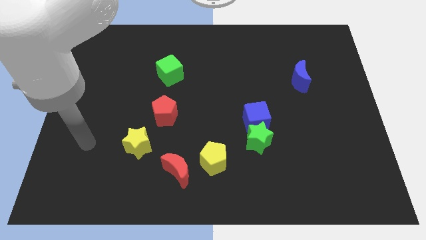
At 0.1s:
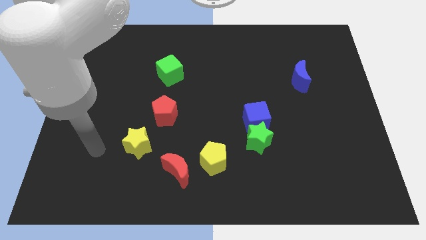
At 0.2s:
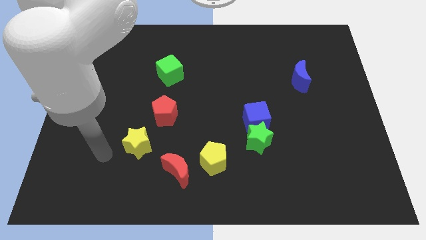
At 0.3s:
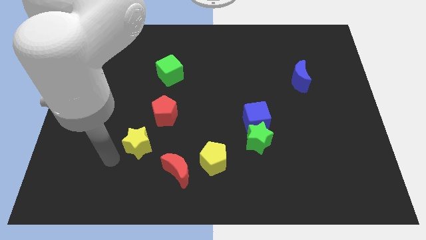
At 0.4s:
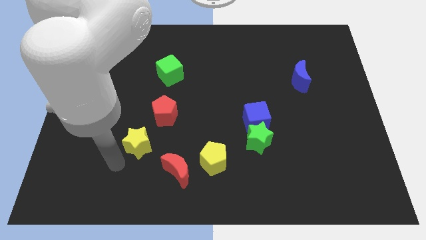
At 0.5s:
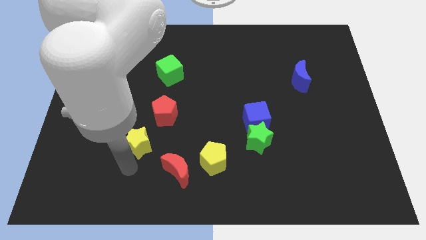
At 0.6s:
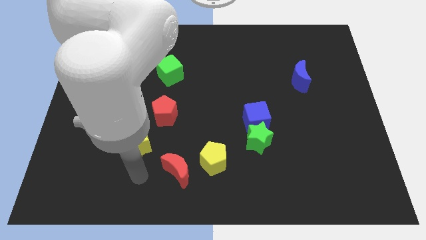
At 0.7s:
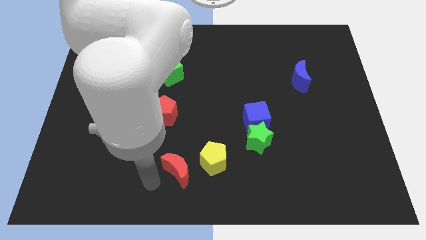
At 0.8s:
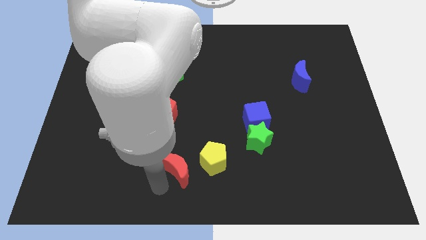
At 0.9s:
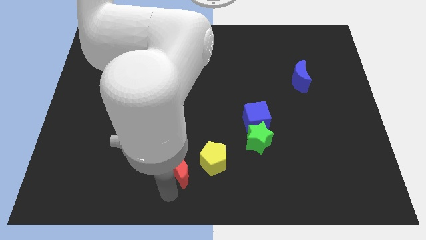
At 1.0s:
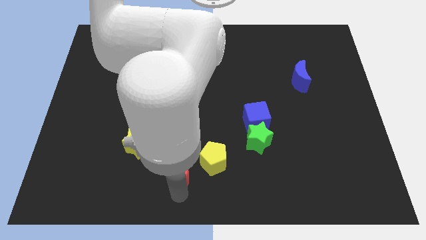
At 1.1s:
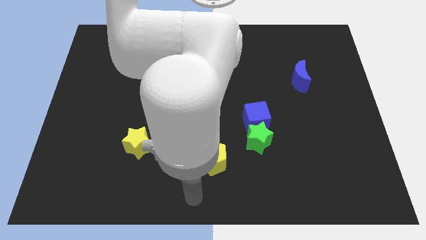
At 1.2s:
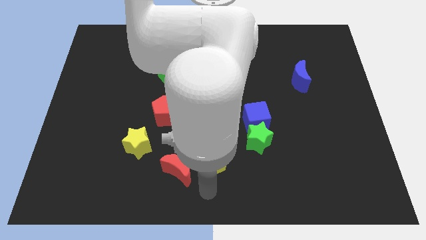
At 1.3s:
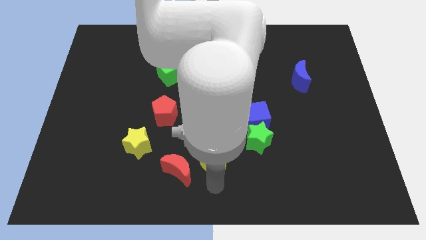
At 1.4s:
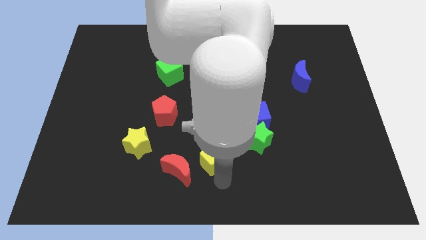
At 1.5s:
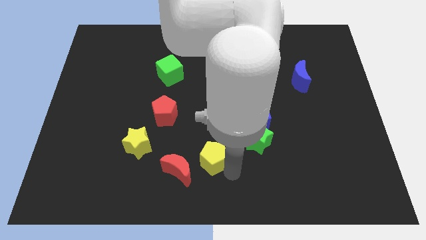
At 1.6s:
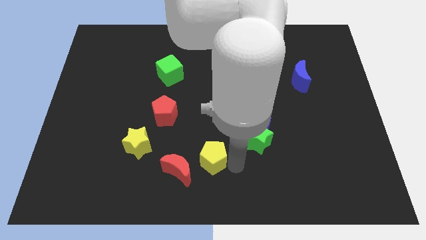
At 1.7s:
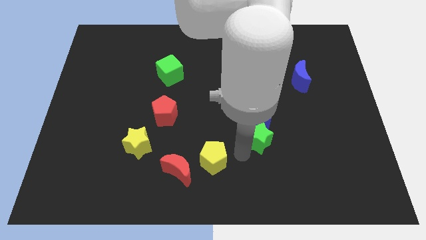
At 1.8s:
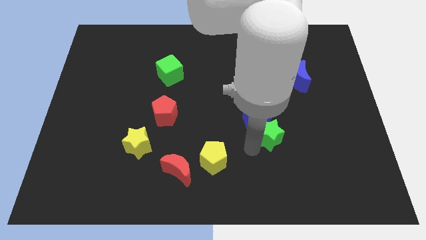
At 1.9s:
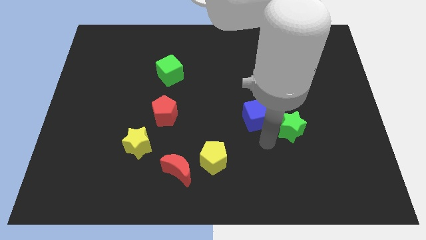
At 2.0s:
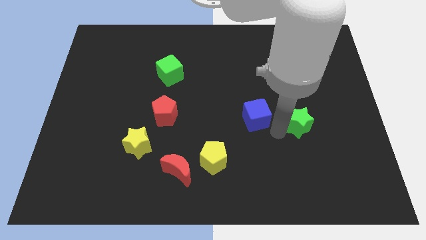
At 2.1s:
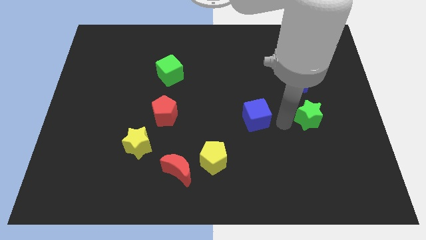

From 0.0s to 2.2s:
move the blue cube away from the green star

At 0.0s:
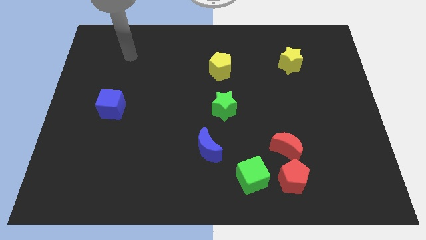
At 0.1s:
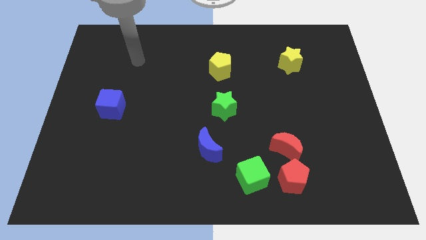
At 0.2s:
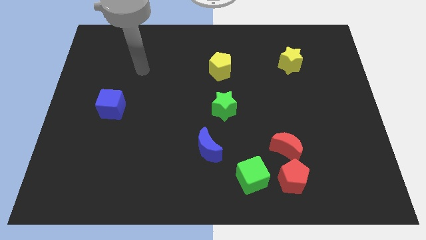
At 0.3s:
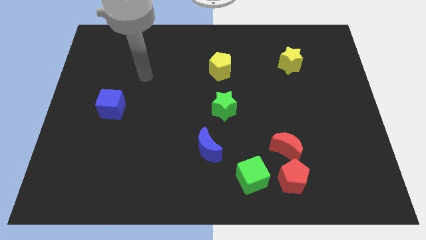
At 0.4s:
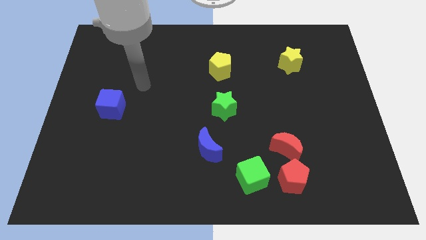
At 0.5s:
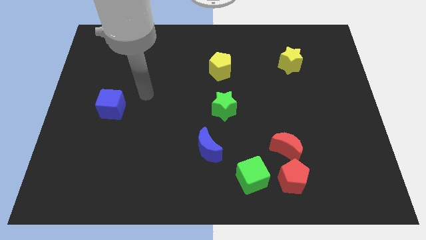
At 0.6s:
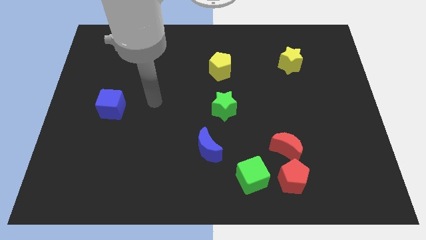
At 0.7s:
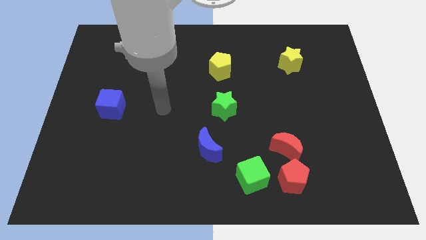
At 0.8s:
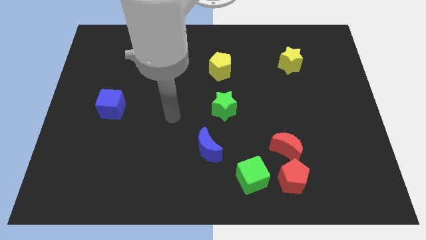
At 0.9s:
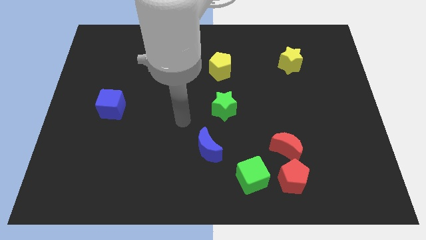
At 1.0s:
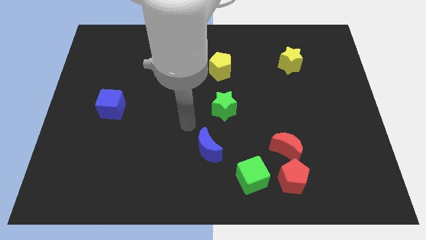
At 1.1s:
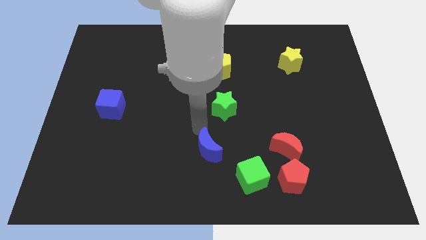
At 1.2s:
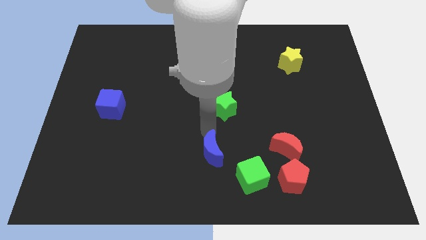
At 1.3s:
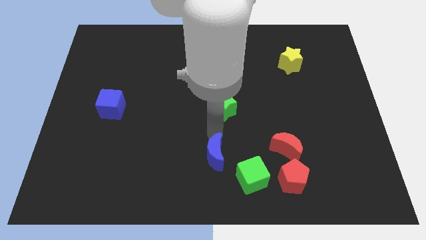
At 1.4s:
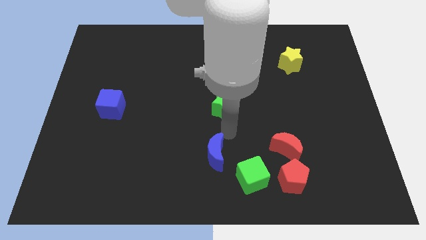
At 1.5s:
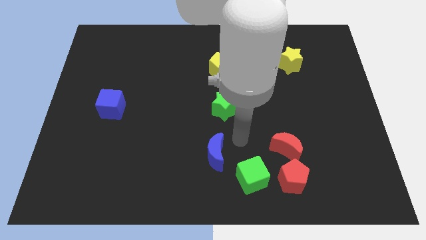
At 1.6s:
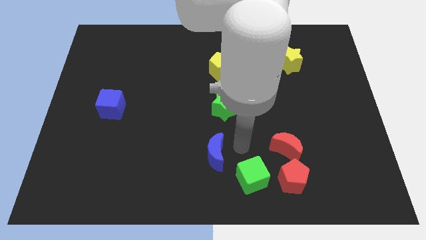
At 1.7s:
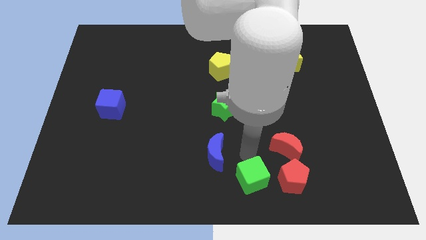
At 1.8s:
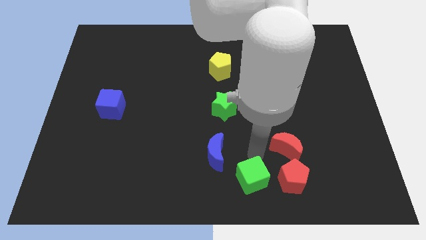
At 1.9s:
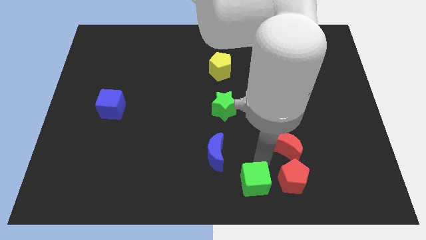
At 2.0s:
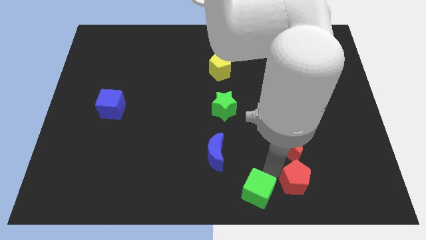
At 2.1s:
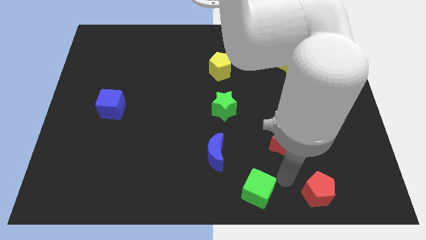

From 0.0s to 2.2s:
separate the red moon from the red pentagon

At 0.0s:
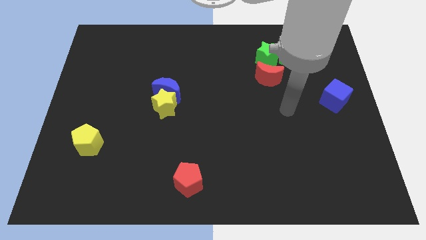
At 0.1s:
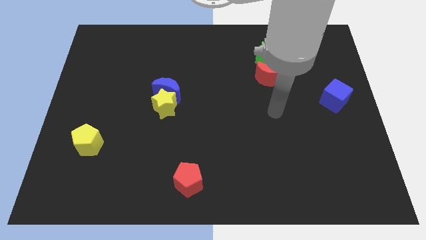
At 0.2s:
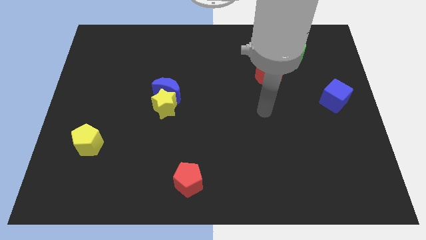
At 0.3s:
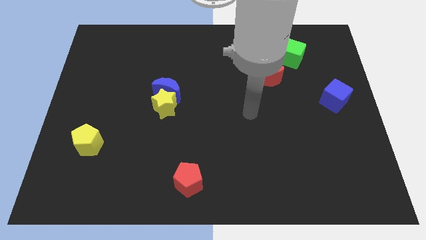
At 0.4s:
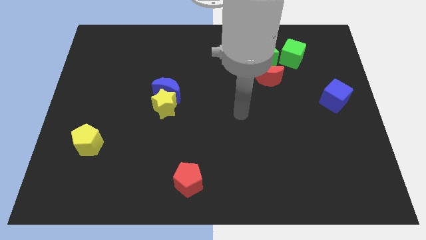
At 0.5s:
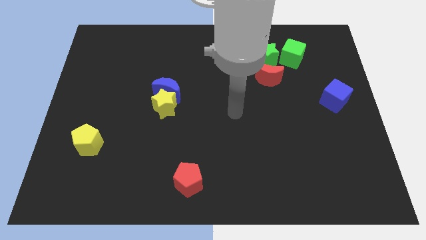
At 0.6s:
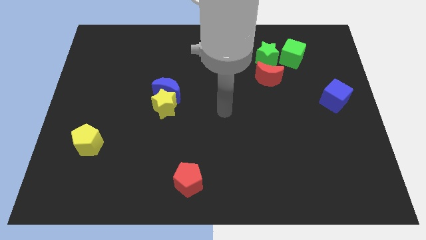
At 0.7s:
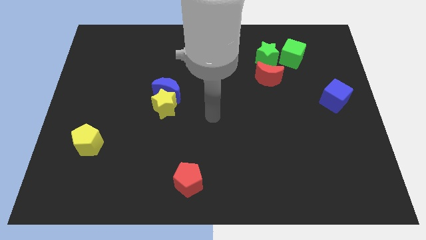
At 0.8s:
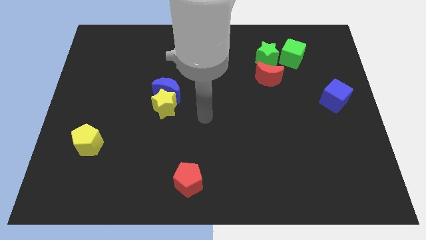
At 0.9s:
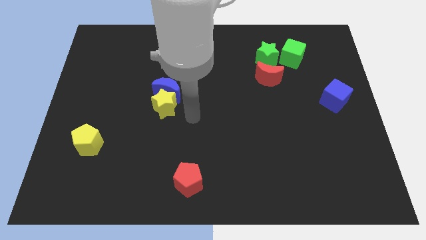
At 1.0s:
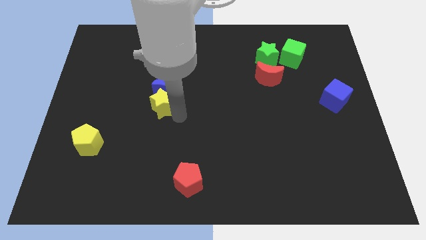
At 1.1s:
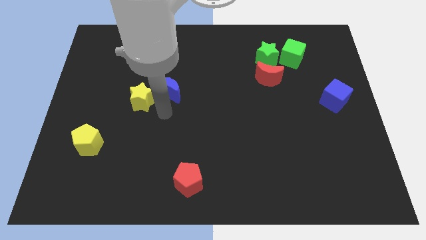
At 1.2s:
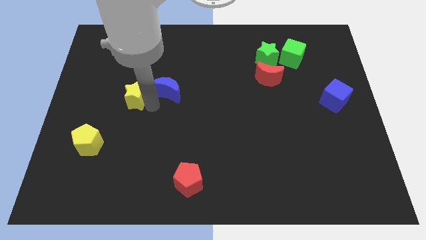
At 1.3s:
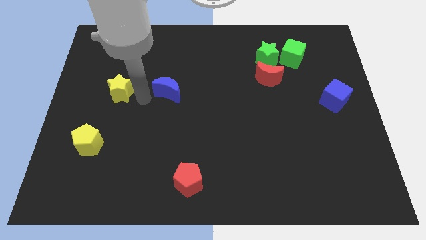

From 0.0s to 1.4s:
pull the blue moon apart from the yellow star

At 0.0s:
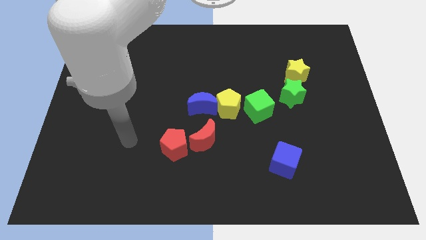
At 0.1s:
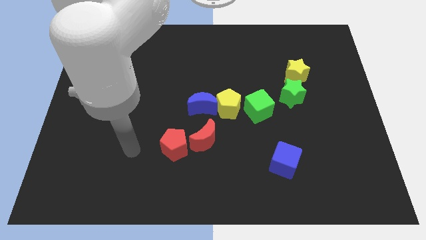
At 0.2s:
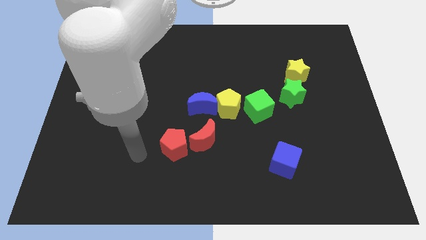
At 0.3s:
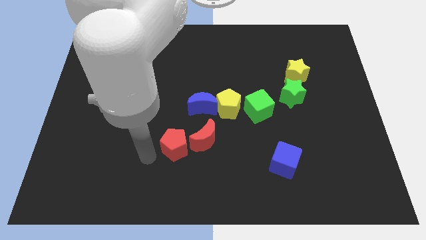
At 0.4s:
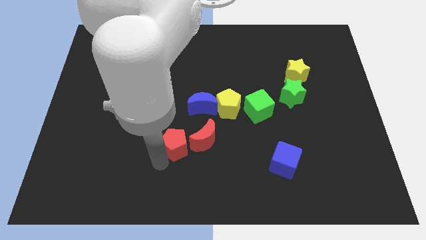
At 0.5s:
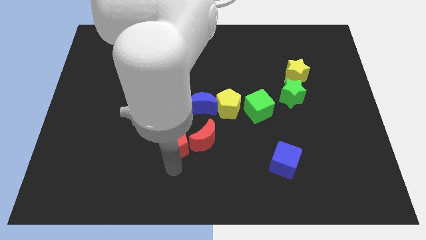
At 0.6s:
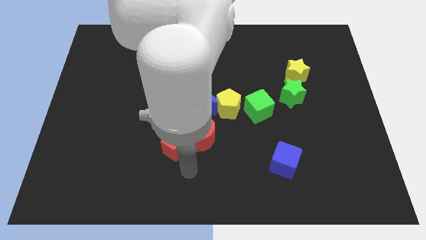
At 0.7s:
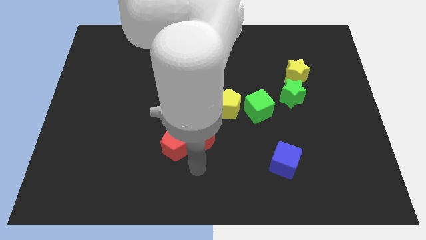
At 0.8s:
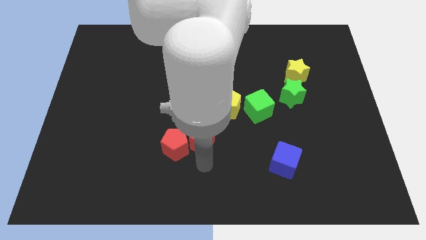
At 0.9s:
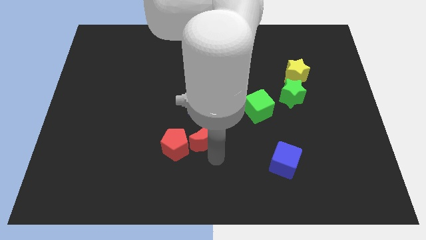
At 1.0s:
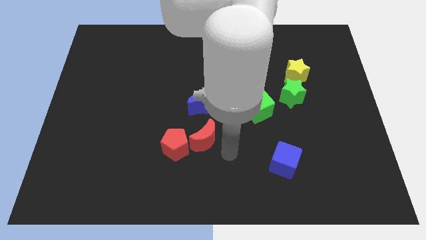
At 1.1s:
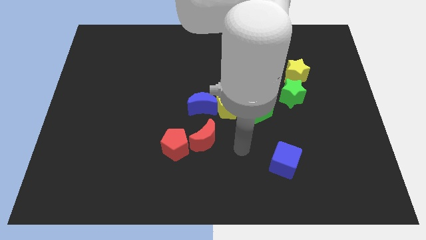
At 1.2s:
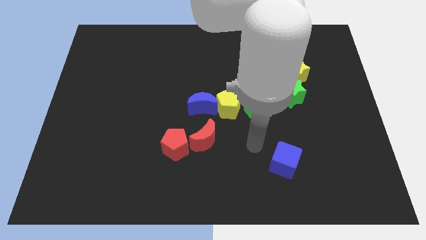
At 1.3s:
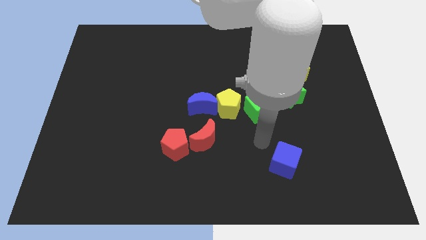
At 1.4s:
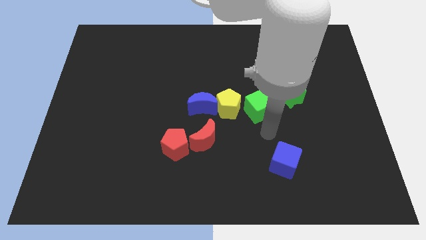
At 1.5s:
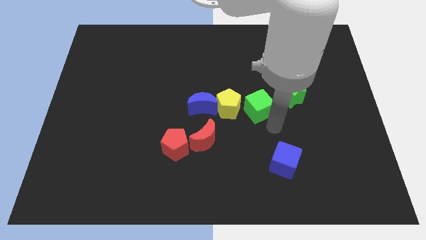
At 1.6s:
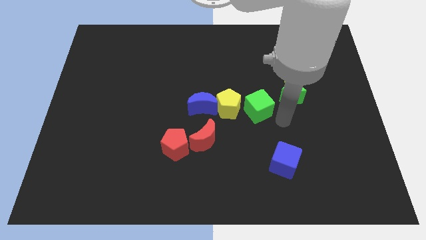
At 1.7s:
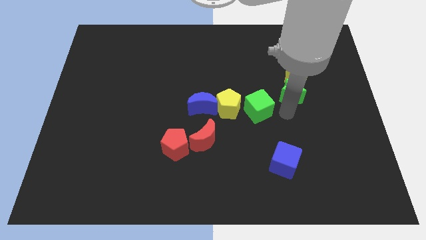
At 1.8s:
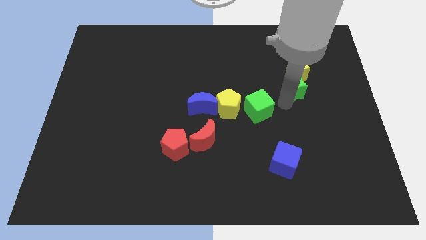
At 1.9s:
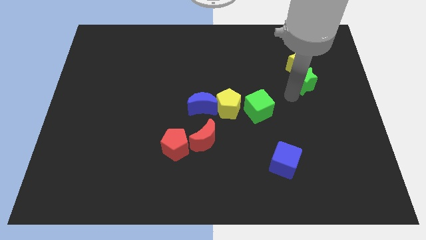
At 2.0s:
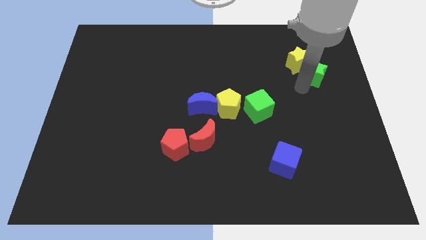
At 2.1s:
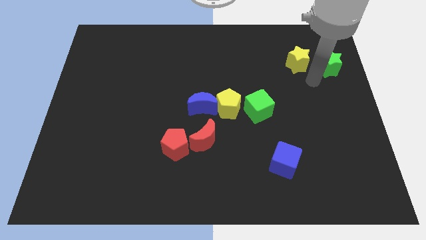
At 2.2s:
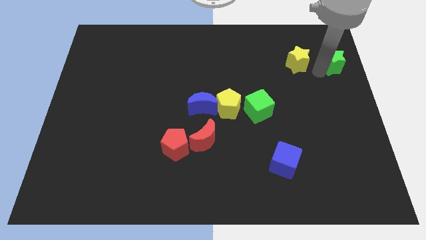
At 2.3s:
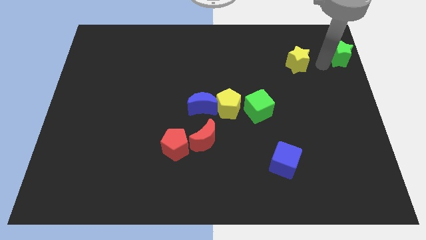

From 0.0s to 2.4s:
move the yellow star away from the green star

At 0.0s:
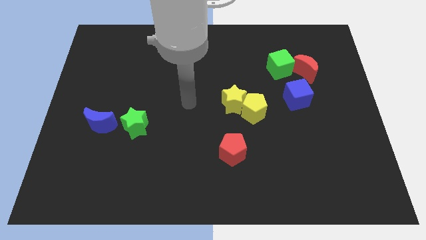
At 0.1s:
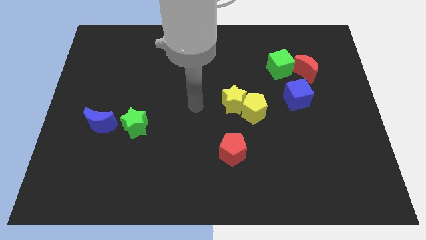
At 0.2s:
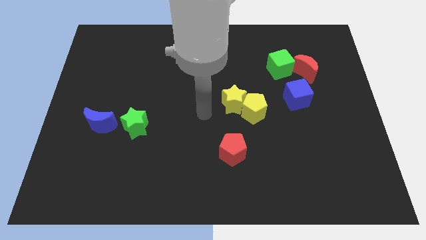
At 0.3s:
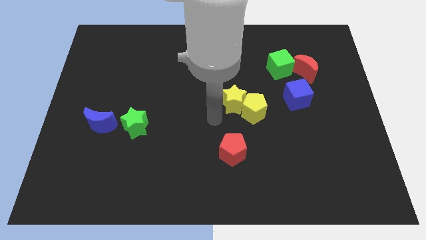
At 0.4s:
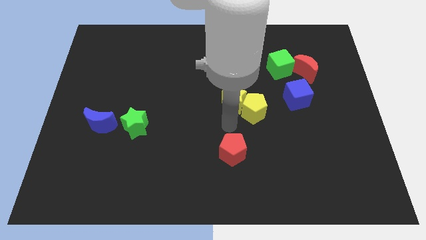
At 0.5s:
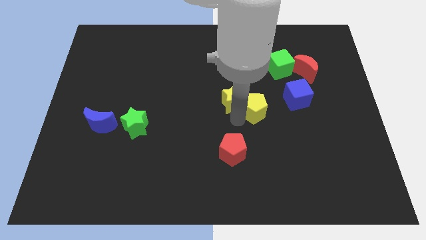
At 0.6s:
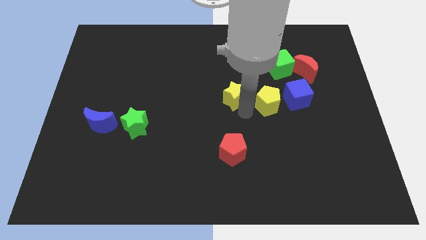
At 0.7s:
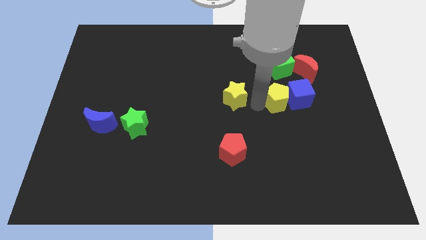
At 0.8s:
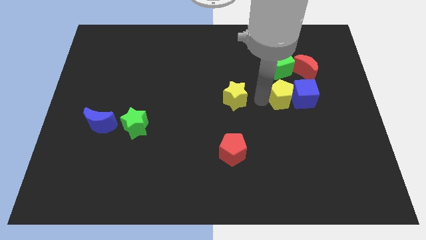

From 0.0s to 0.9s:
separate the yellow star from the yellow pentagon

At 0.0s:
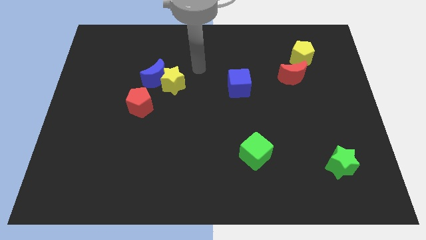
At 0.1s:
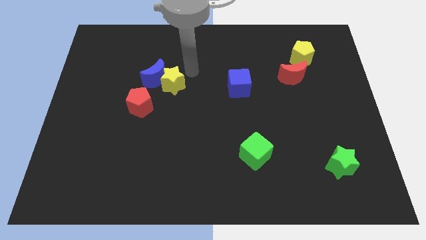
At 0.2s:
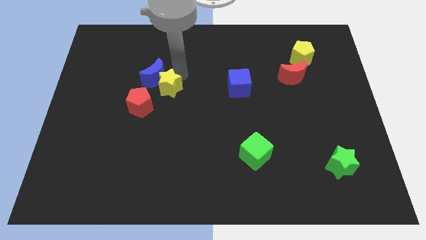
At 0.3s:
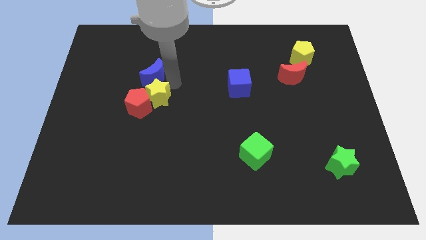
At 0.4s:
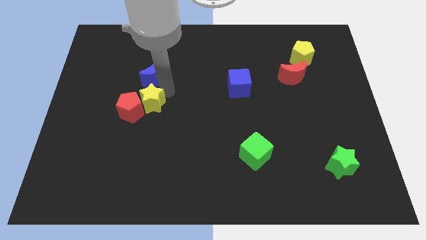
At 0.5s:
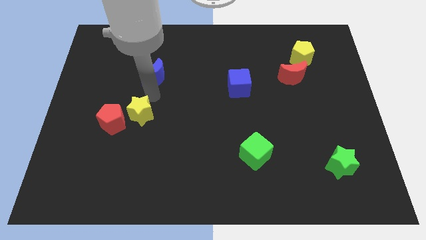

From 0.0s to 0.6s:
move the blue moon away from the yellow star and red pentagon
